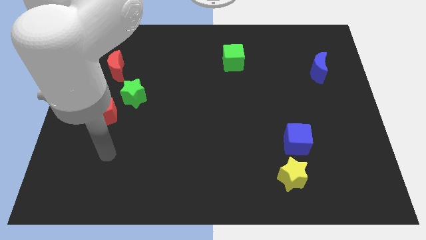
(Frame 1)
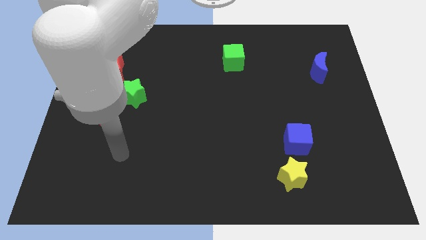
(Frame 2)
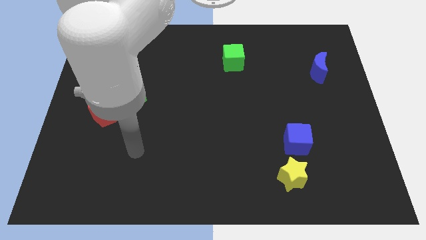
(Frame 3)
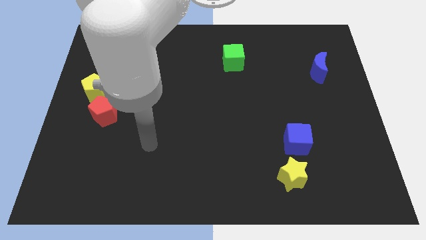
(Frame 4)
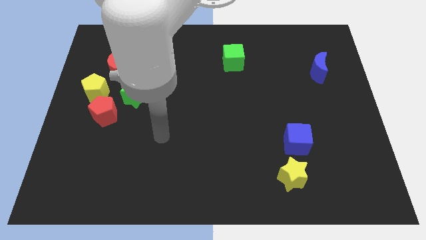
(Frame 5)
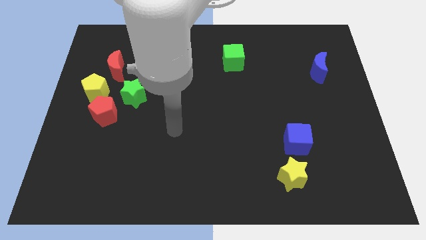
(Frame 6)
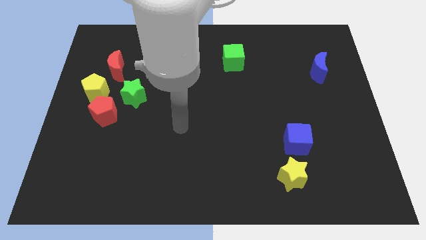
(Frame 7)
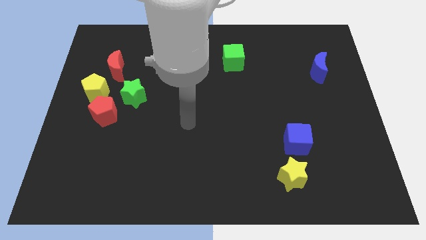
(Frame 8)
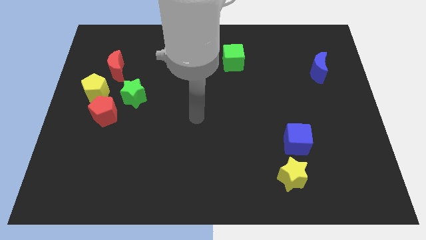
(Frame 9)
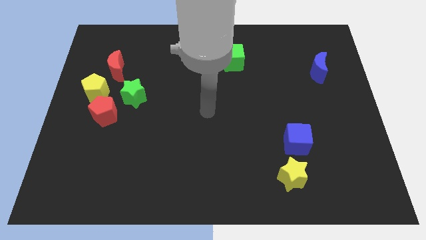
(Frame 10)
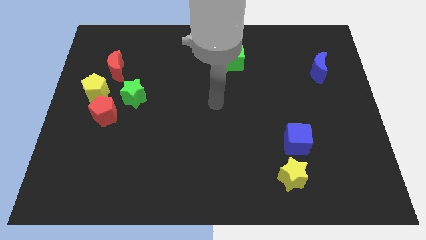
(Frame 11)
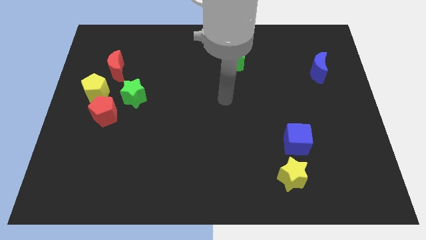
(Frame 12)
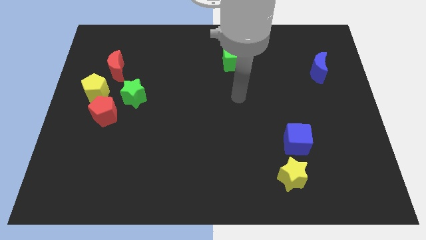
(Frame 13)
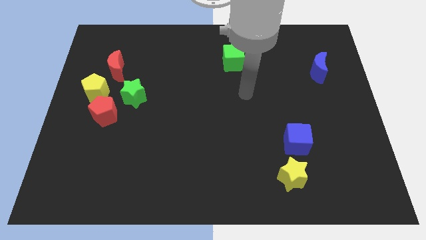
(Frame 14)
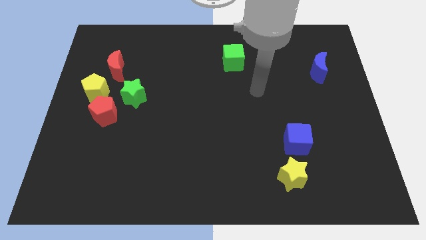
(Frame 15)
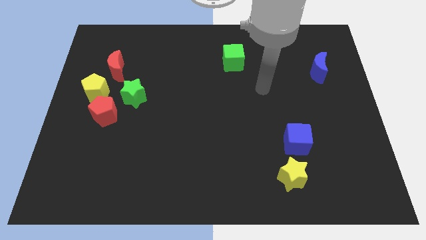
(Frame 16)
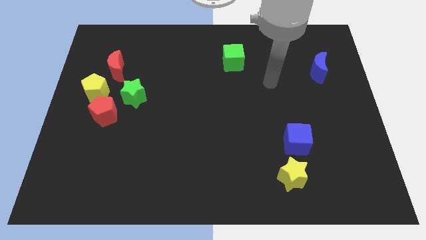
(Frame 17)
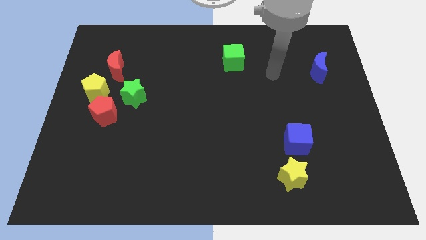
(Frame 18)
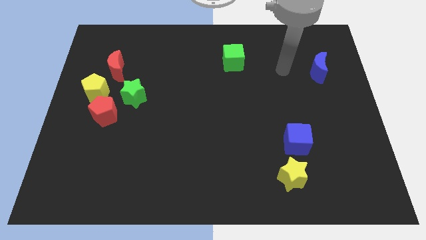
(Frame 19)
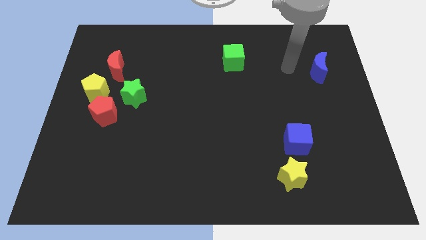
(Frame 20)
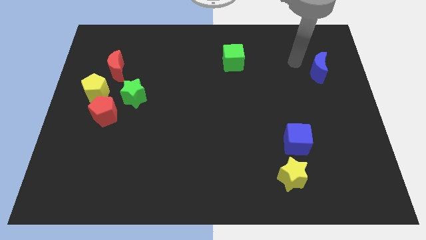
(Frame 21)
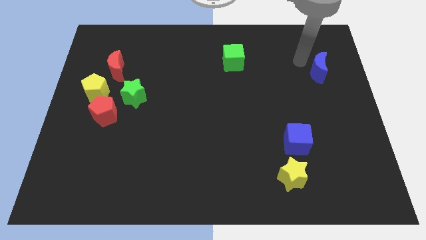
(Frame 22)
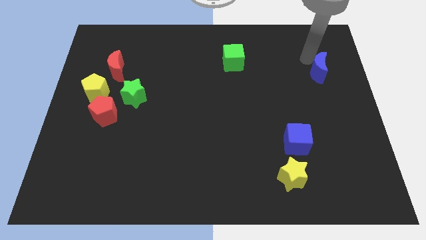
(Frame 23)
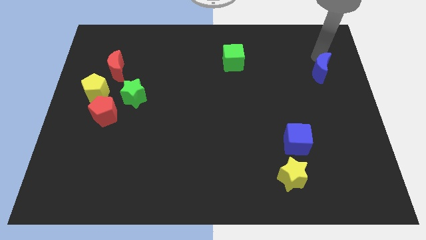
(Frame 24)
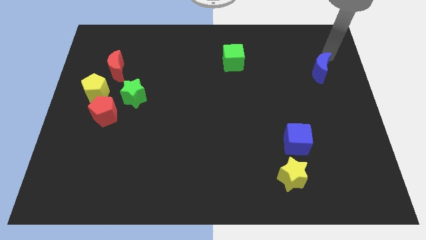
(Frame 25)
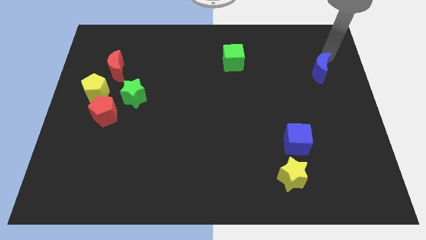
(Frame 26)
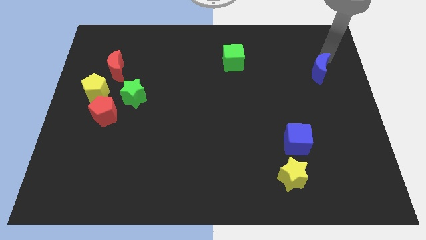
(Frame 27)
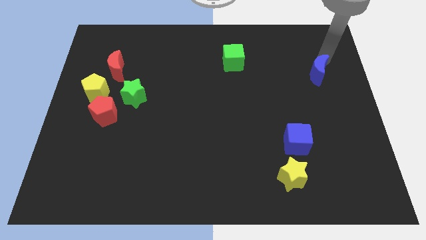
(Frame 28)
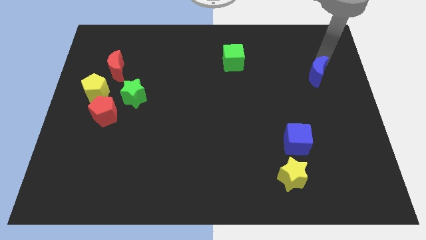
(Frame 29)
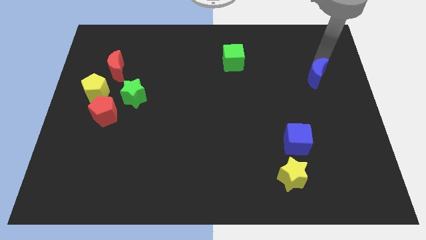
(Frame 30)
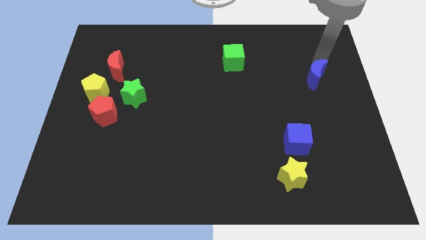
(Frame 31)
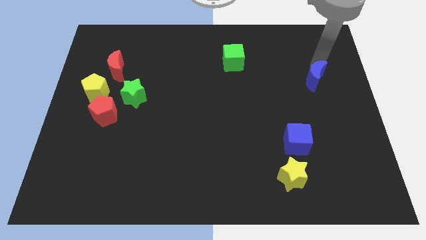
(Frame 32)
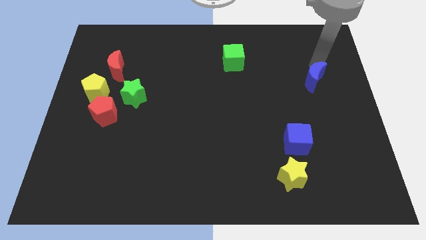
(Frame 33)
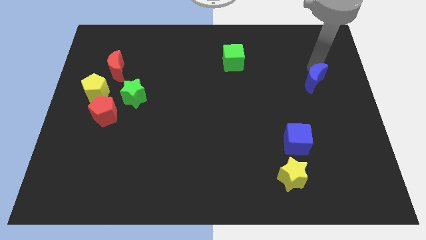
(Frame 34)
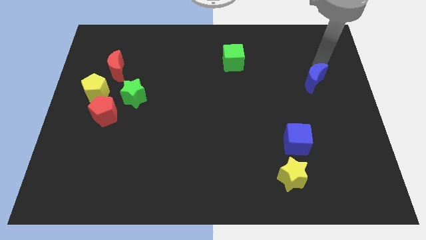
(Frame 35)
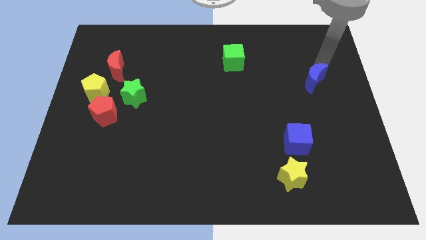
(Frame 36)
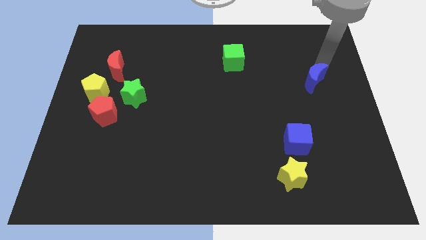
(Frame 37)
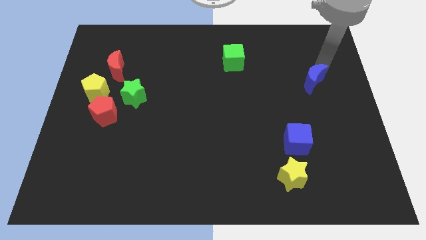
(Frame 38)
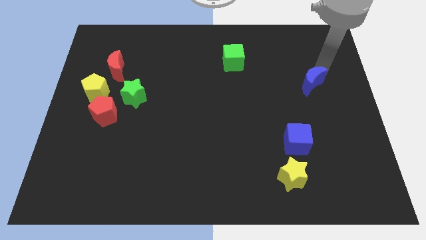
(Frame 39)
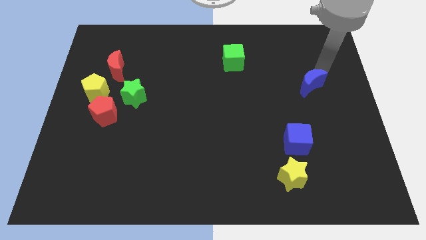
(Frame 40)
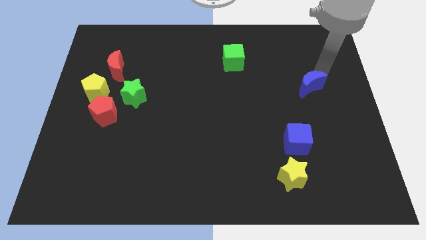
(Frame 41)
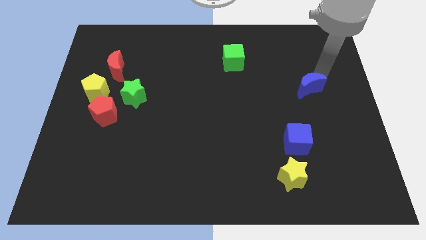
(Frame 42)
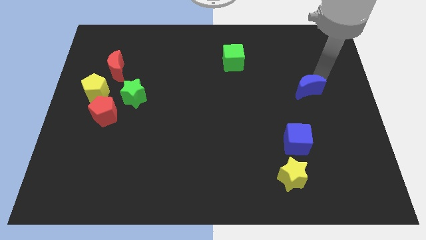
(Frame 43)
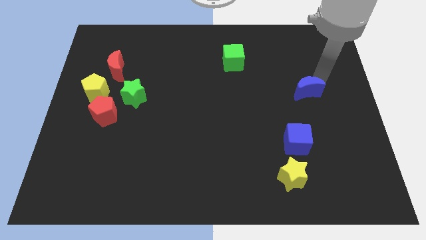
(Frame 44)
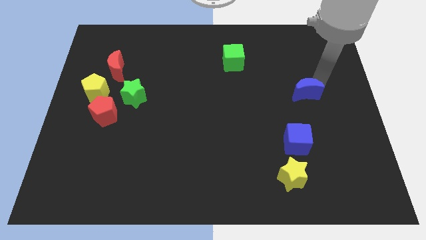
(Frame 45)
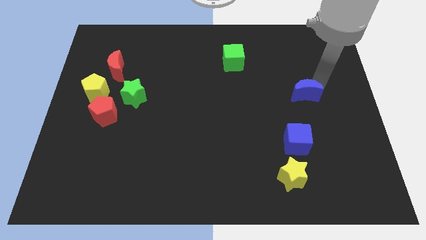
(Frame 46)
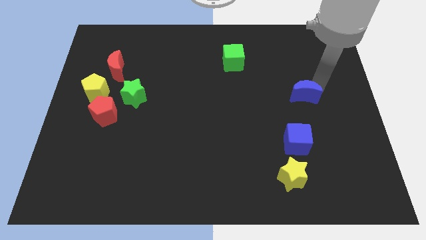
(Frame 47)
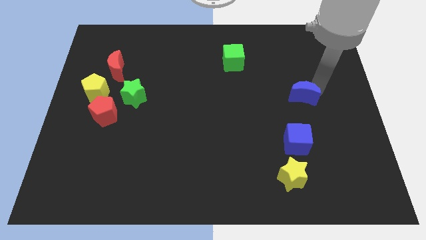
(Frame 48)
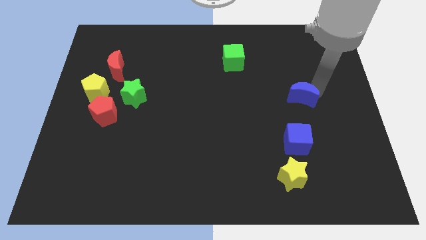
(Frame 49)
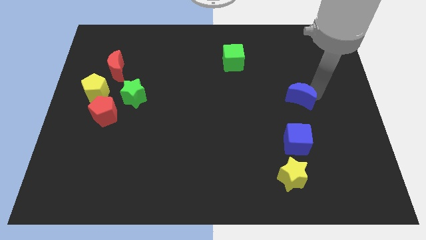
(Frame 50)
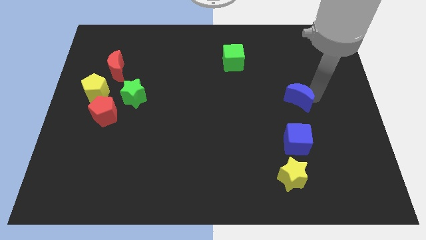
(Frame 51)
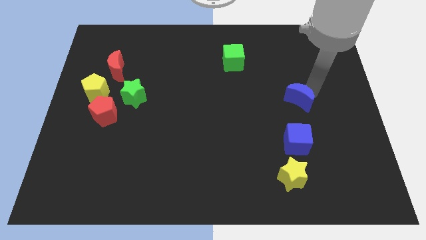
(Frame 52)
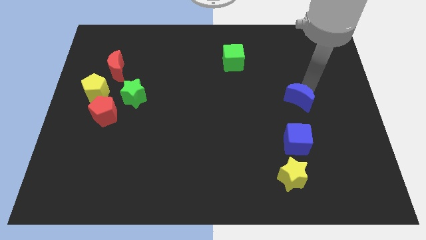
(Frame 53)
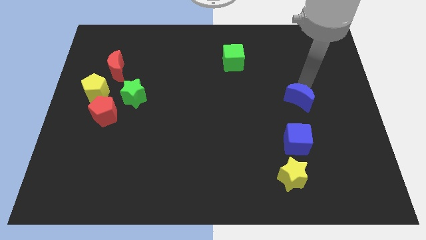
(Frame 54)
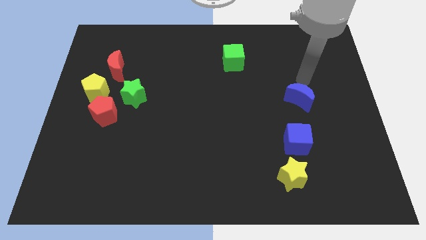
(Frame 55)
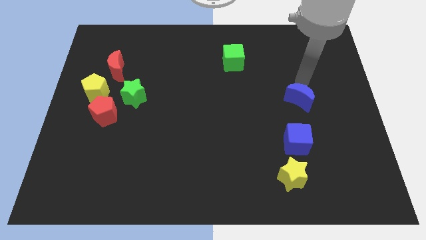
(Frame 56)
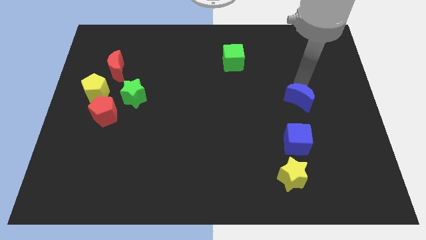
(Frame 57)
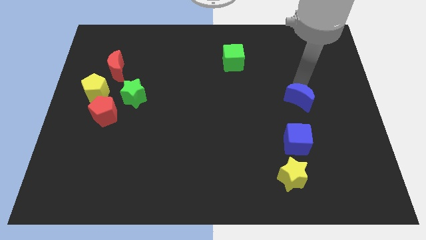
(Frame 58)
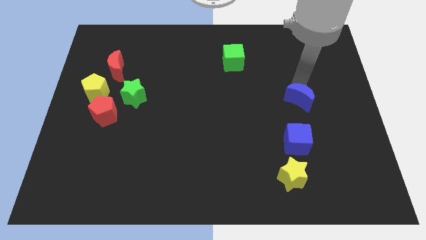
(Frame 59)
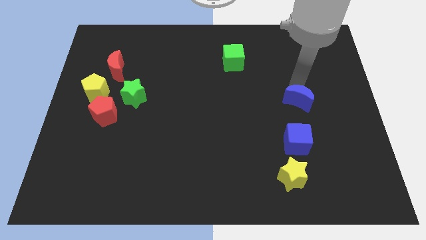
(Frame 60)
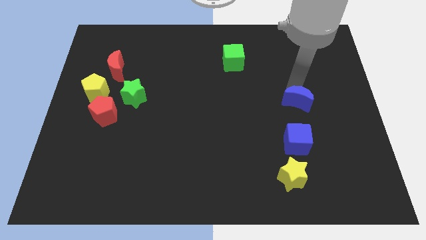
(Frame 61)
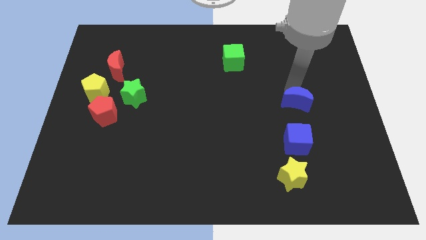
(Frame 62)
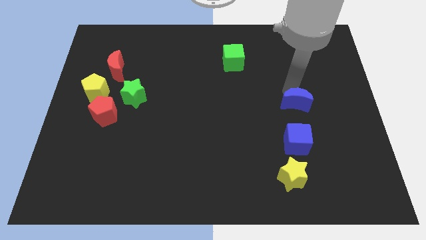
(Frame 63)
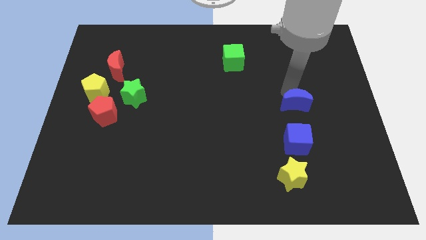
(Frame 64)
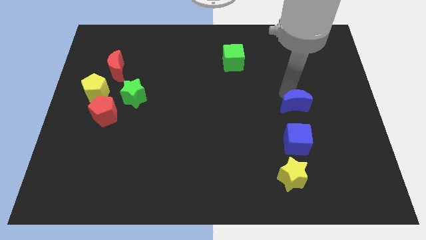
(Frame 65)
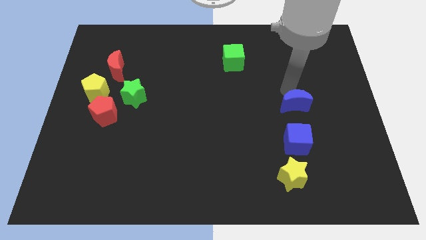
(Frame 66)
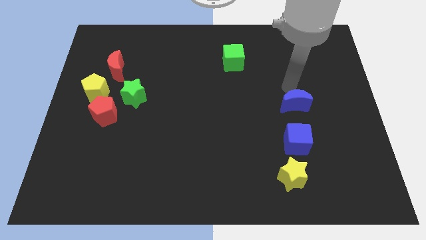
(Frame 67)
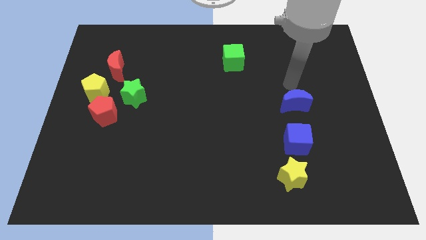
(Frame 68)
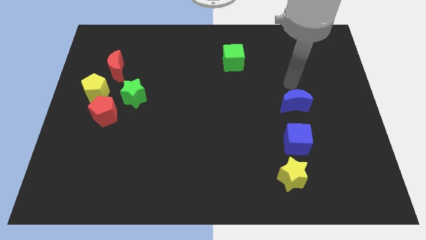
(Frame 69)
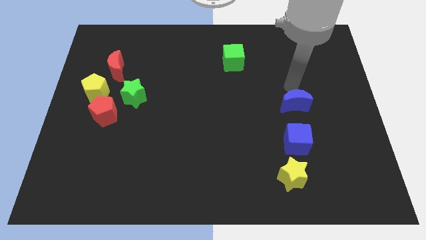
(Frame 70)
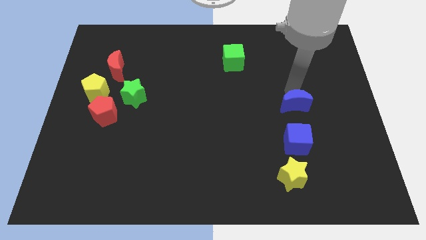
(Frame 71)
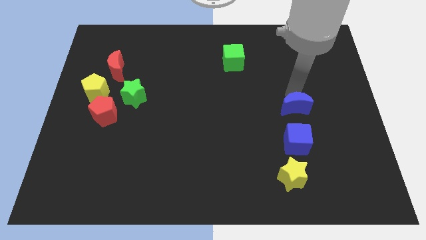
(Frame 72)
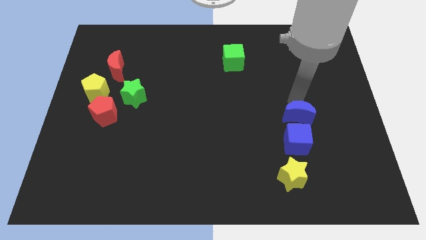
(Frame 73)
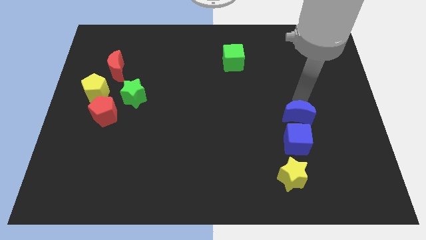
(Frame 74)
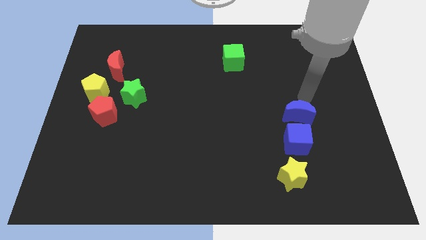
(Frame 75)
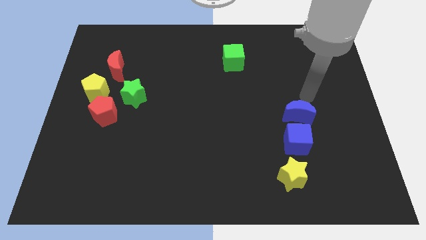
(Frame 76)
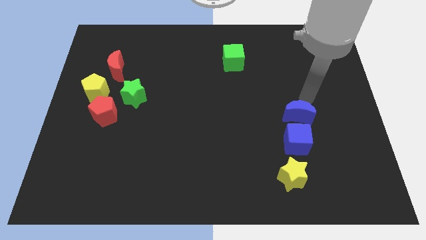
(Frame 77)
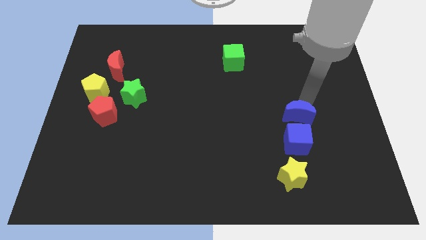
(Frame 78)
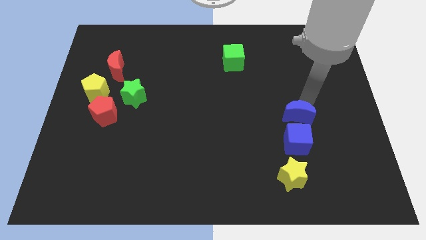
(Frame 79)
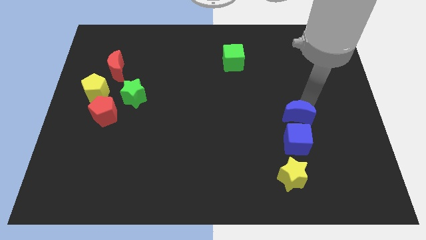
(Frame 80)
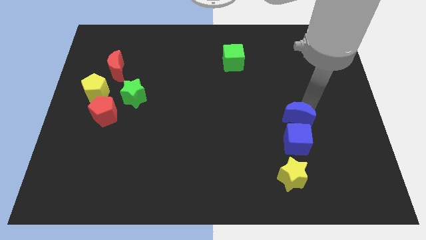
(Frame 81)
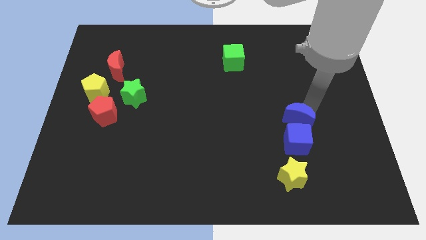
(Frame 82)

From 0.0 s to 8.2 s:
put the blue moon above the yellow star
